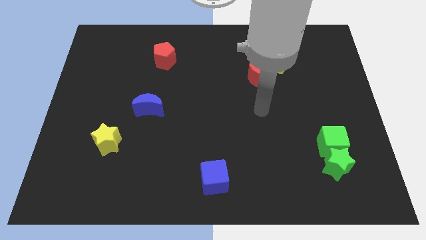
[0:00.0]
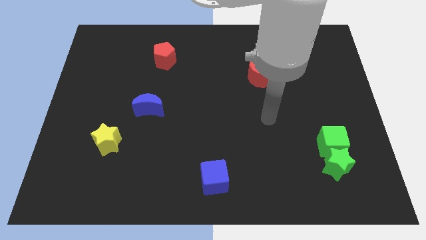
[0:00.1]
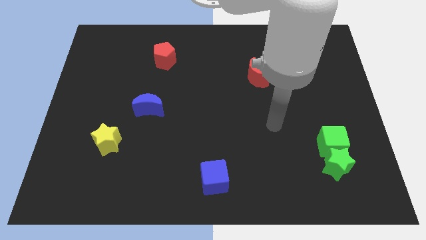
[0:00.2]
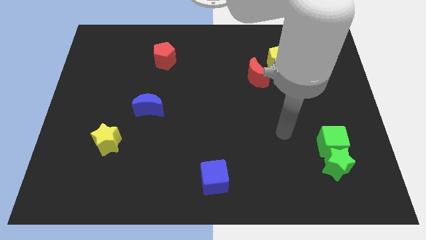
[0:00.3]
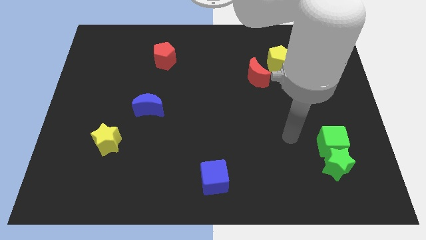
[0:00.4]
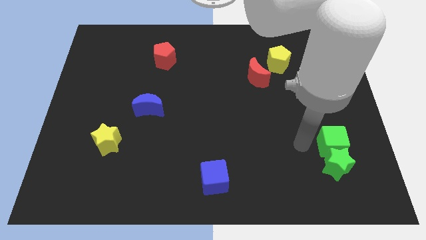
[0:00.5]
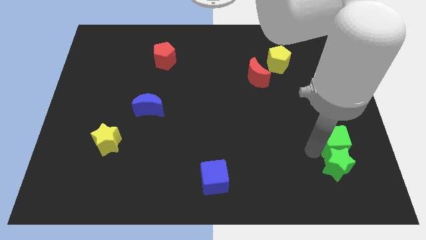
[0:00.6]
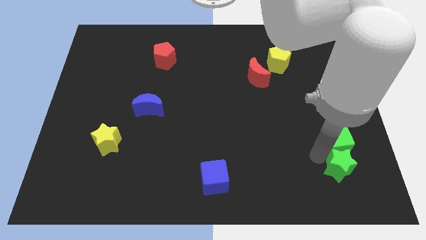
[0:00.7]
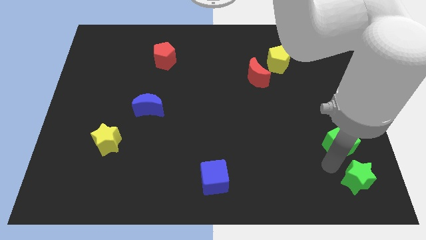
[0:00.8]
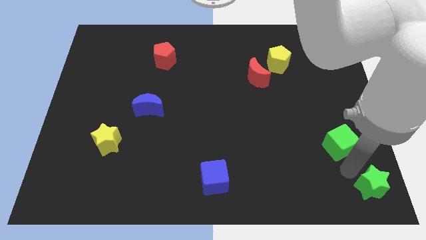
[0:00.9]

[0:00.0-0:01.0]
separate the green cube from the green star

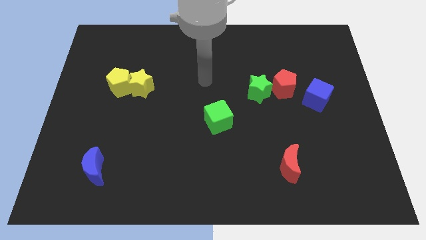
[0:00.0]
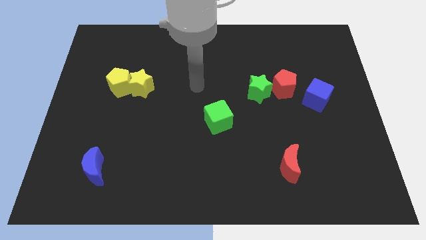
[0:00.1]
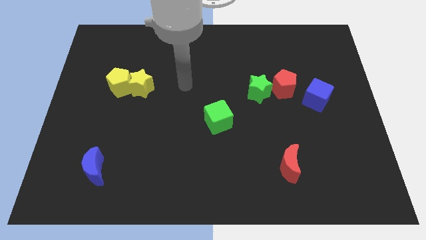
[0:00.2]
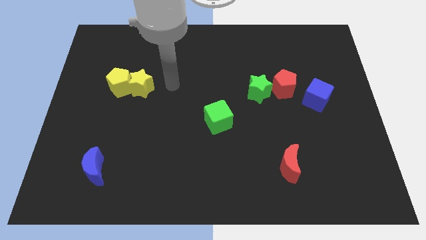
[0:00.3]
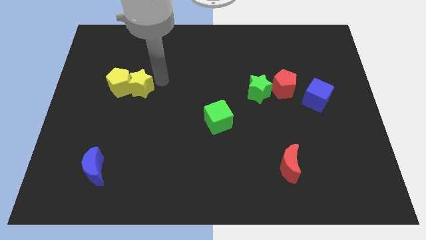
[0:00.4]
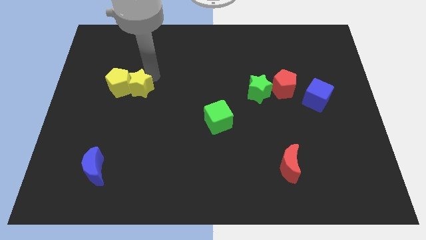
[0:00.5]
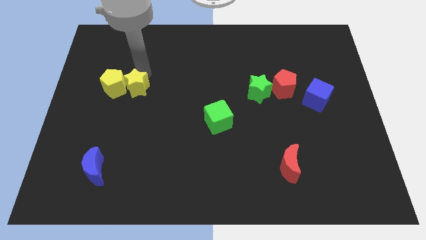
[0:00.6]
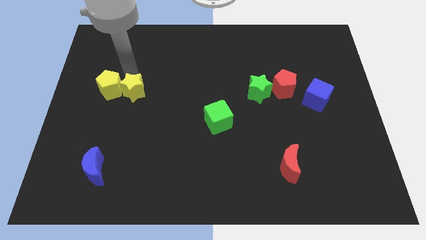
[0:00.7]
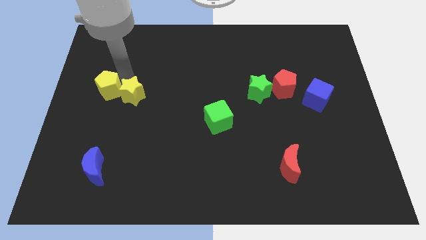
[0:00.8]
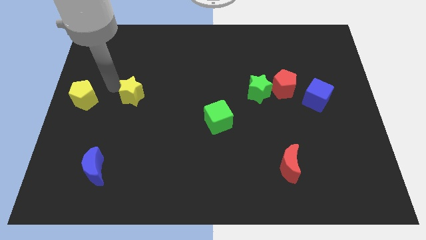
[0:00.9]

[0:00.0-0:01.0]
separate the yellow star from the yellow pentagon

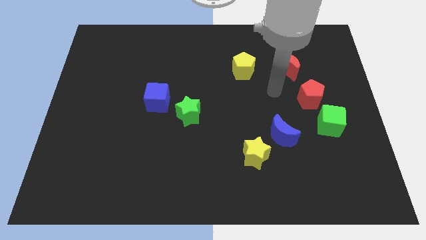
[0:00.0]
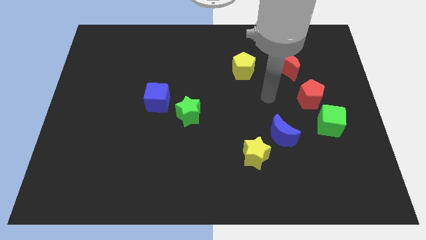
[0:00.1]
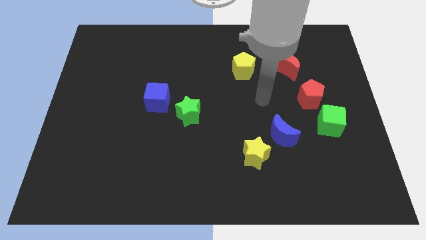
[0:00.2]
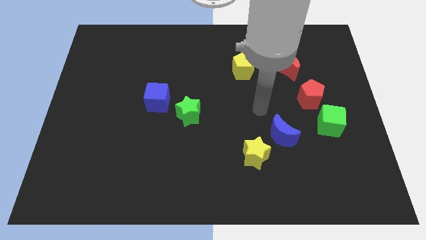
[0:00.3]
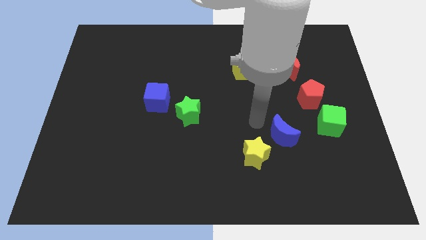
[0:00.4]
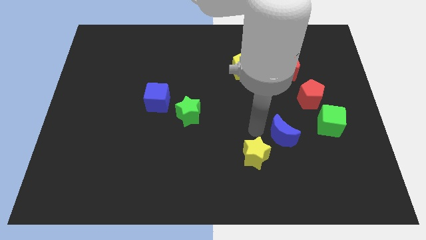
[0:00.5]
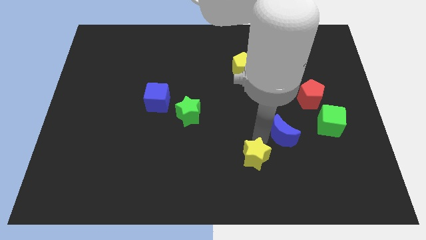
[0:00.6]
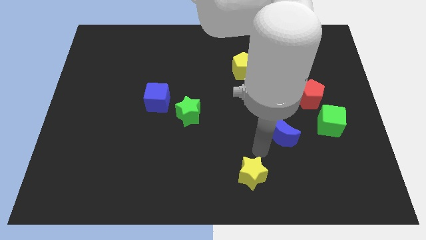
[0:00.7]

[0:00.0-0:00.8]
pull the blue moon apart from the yellow star

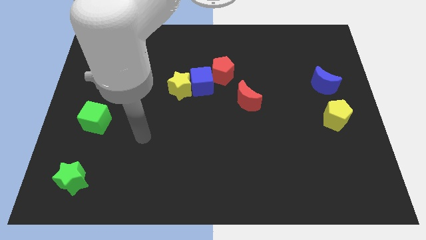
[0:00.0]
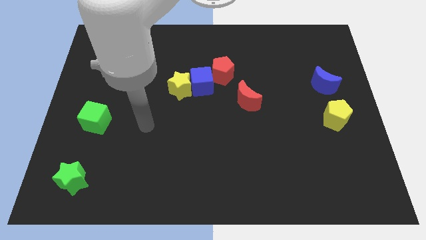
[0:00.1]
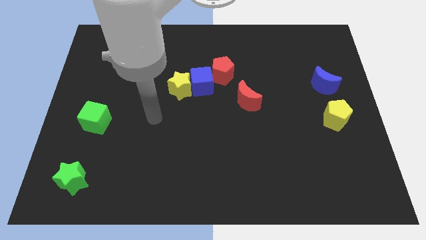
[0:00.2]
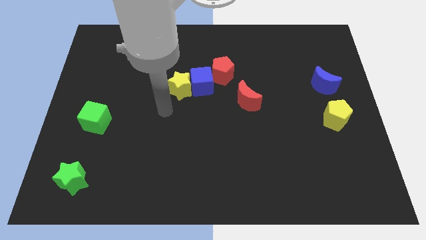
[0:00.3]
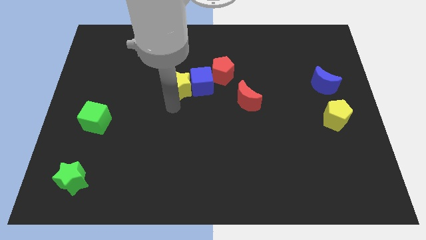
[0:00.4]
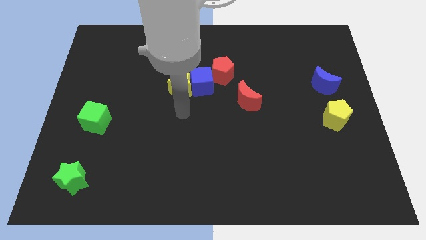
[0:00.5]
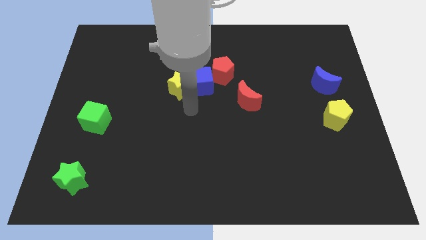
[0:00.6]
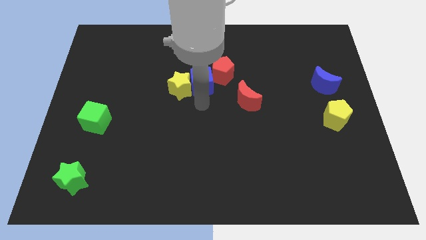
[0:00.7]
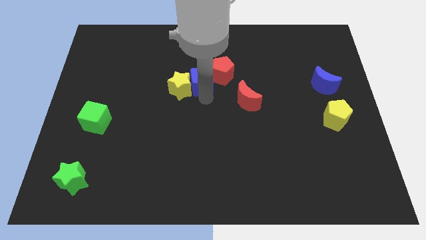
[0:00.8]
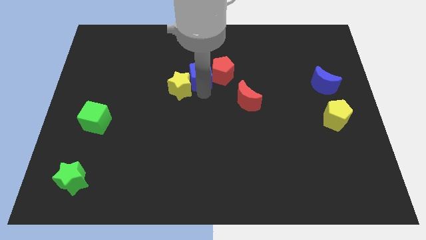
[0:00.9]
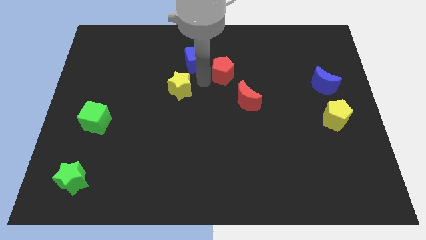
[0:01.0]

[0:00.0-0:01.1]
separate the yellow star from the blue cube

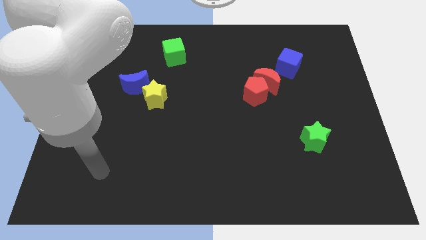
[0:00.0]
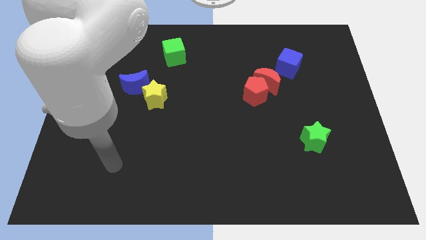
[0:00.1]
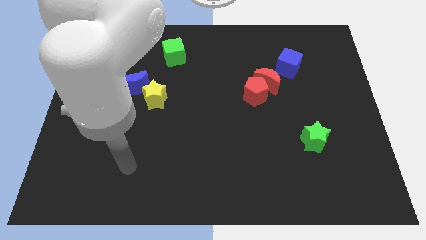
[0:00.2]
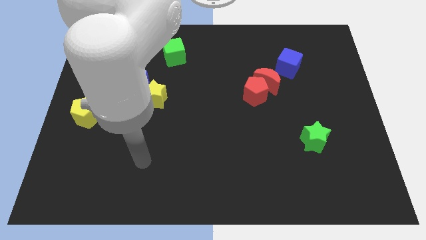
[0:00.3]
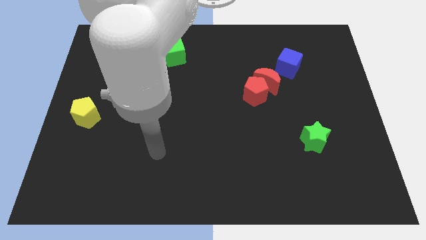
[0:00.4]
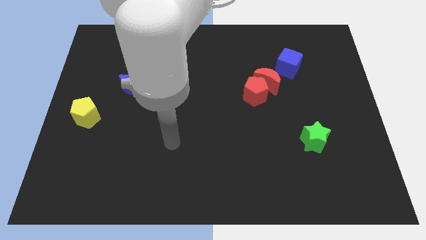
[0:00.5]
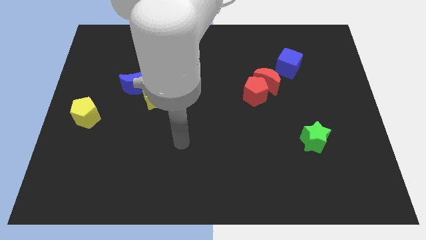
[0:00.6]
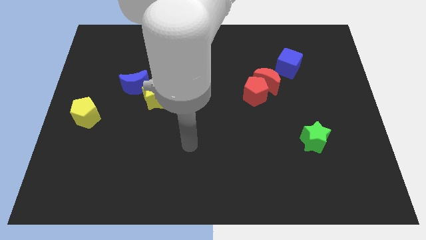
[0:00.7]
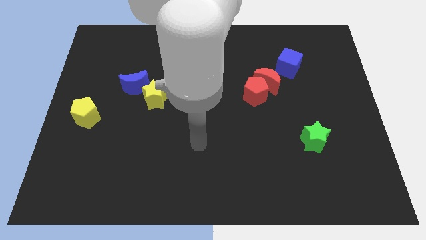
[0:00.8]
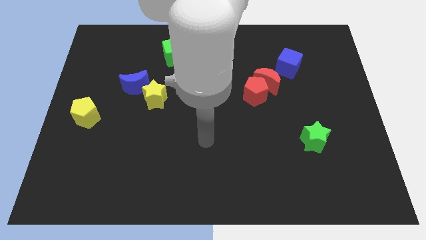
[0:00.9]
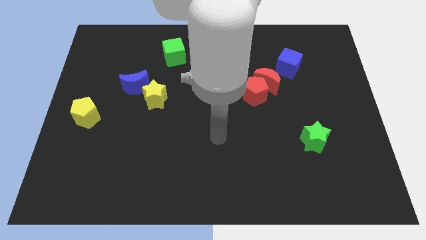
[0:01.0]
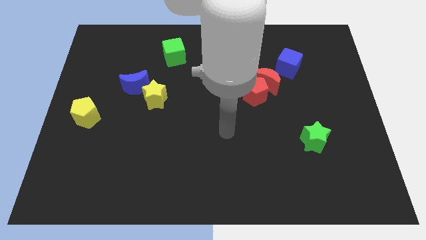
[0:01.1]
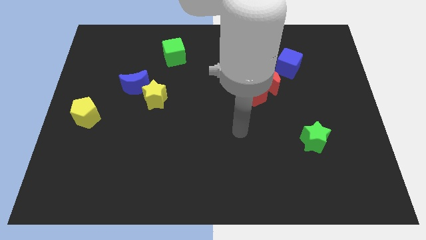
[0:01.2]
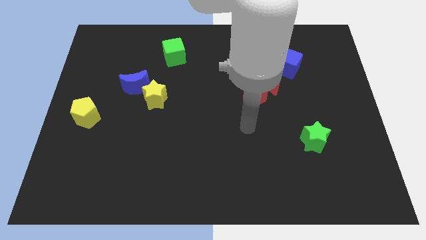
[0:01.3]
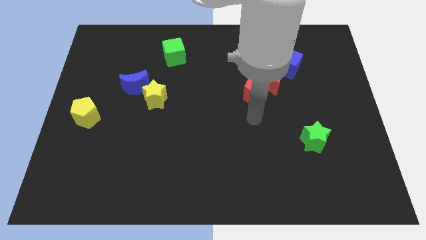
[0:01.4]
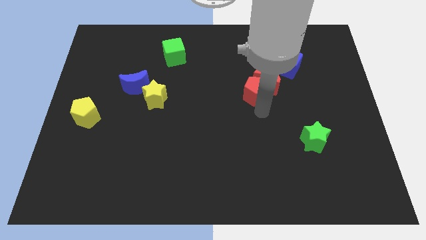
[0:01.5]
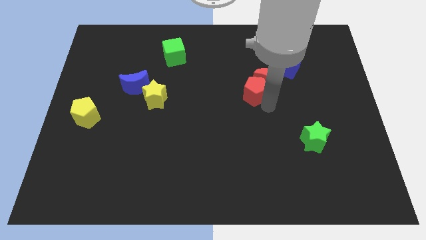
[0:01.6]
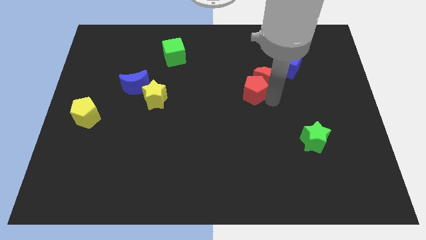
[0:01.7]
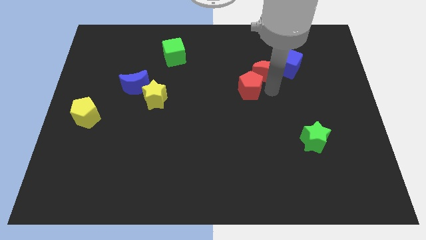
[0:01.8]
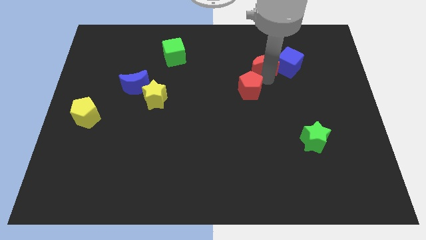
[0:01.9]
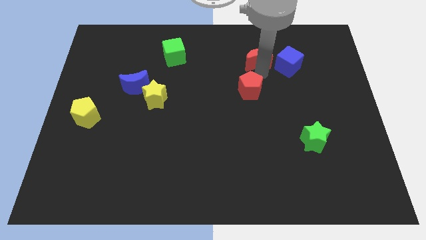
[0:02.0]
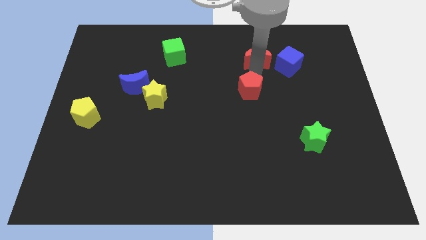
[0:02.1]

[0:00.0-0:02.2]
separate the red pentagon from the red moon

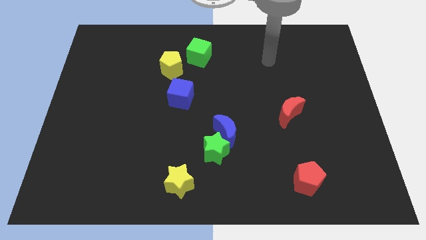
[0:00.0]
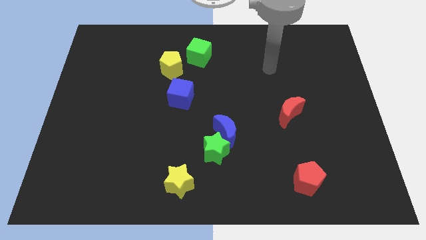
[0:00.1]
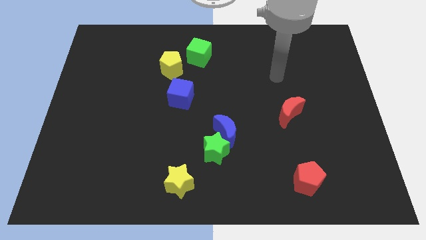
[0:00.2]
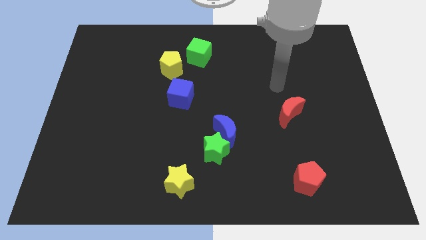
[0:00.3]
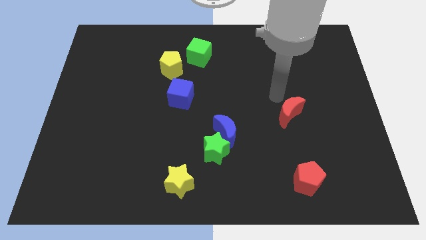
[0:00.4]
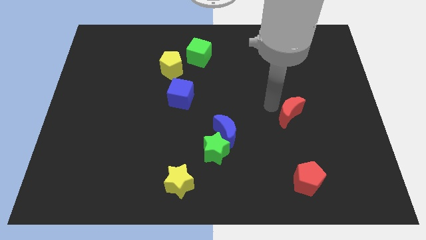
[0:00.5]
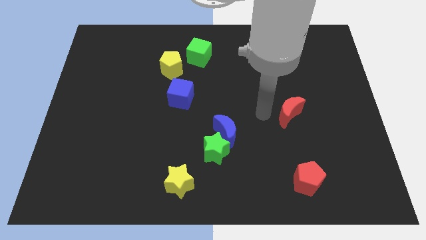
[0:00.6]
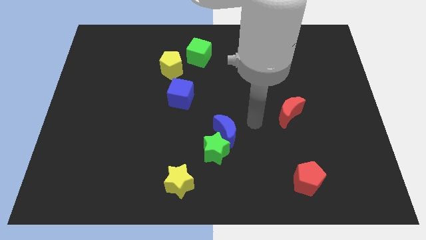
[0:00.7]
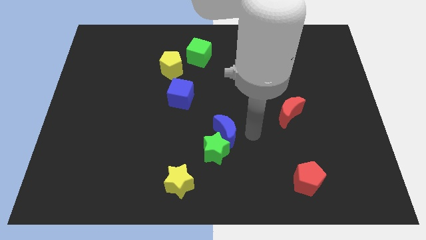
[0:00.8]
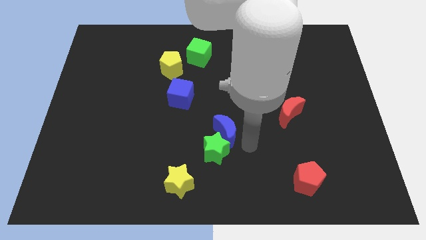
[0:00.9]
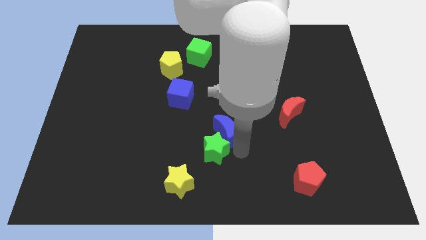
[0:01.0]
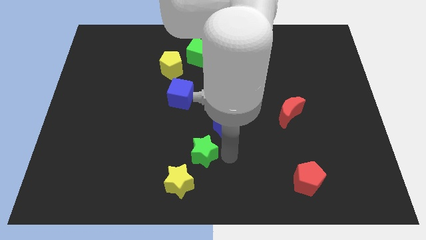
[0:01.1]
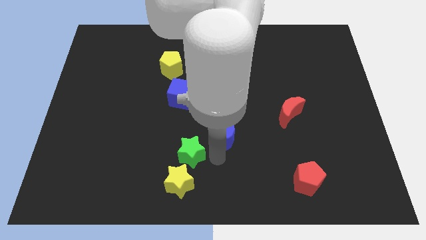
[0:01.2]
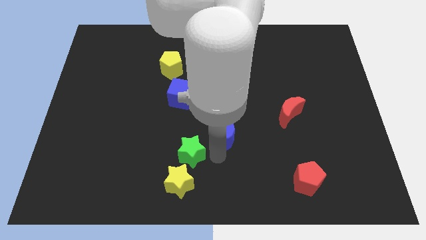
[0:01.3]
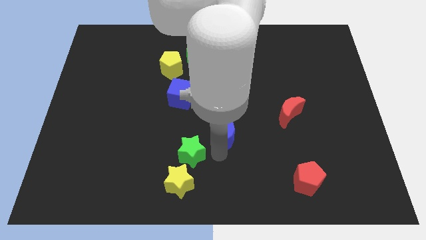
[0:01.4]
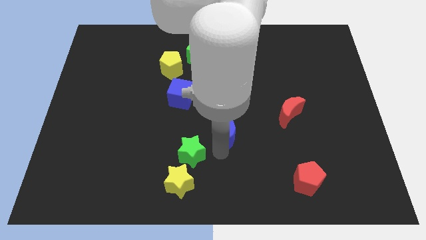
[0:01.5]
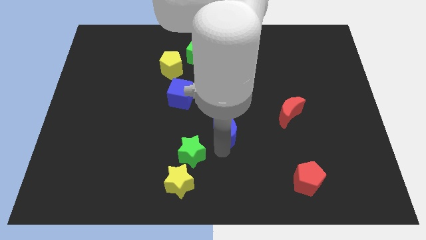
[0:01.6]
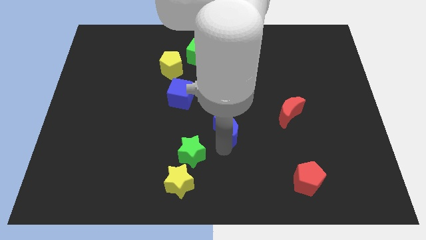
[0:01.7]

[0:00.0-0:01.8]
separate the blue moon from the green star

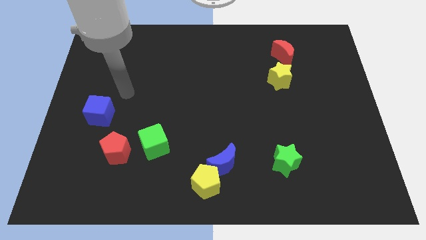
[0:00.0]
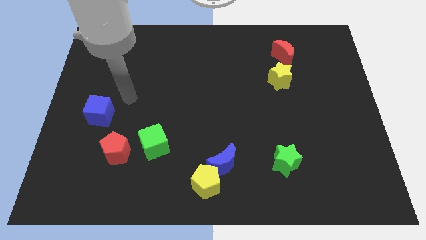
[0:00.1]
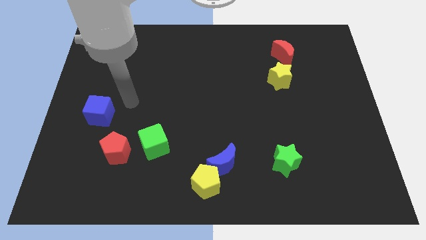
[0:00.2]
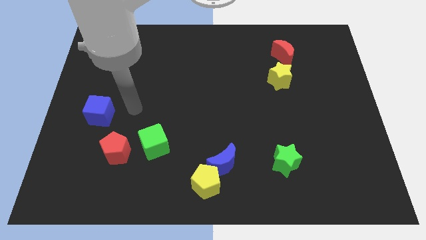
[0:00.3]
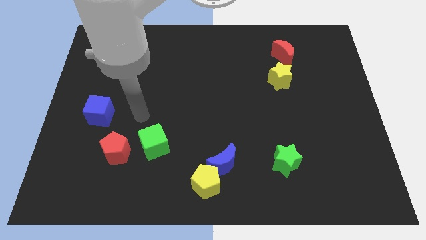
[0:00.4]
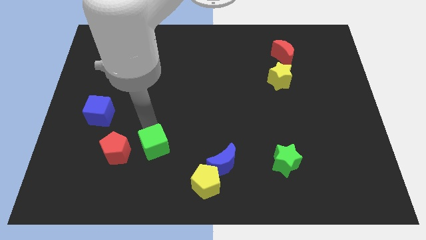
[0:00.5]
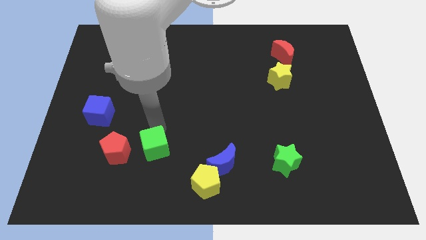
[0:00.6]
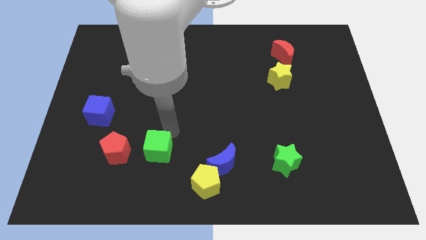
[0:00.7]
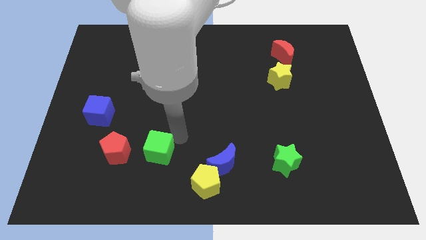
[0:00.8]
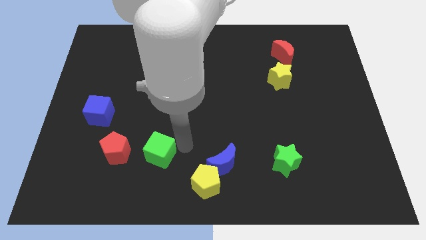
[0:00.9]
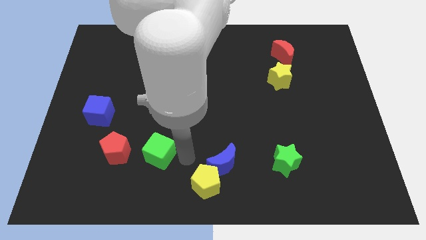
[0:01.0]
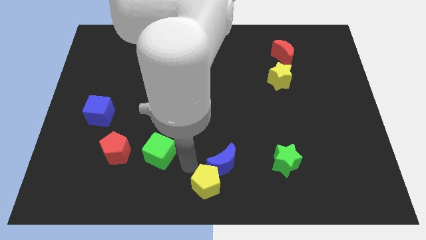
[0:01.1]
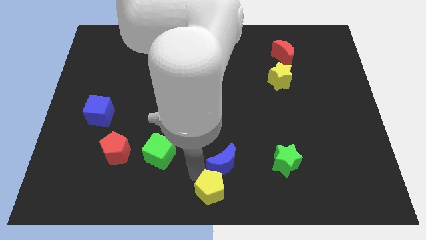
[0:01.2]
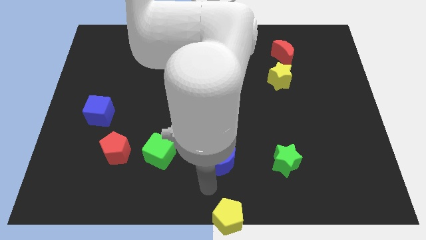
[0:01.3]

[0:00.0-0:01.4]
pull the blue moon apart from the yellow pentagon
